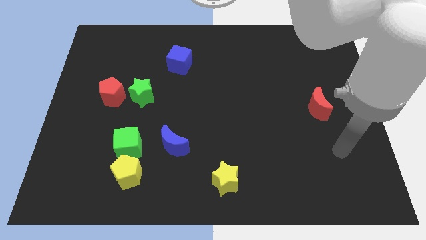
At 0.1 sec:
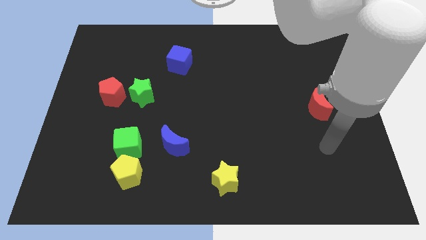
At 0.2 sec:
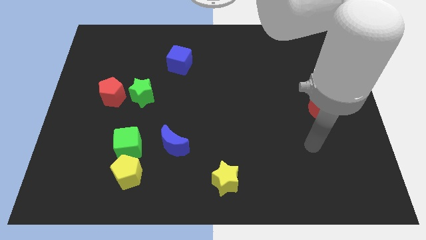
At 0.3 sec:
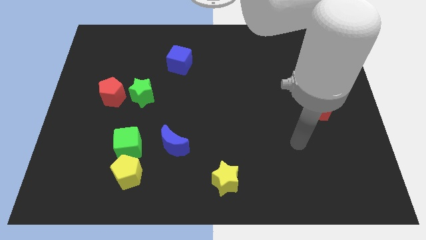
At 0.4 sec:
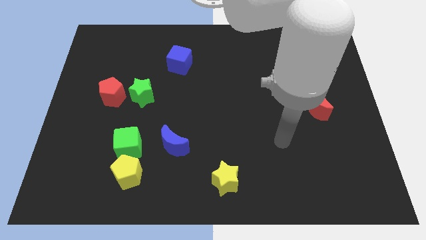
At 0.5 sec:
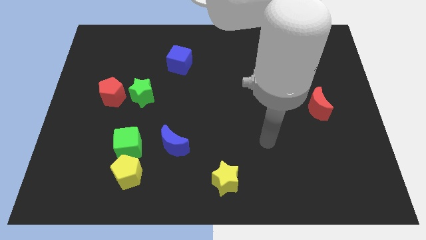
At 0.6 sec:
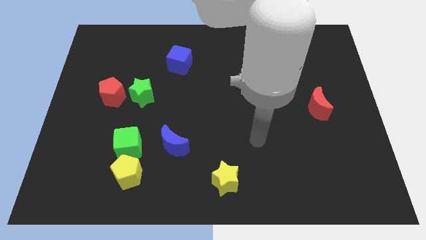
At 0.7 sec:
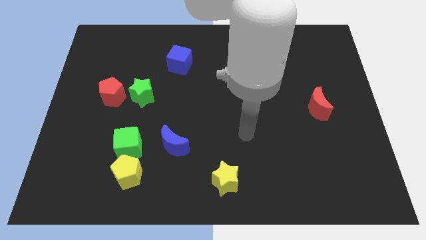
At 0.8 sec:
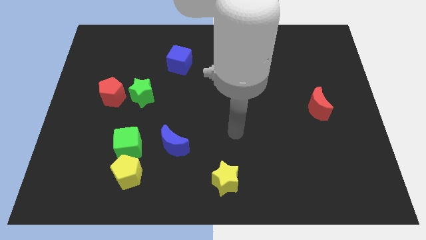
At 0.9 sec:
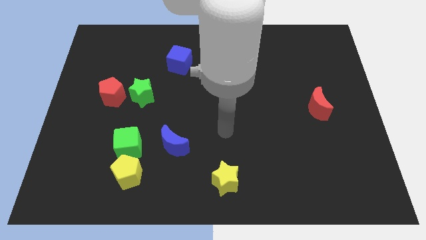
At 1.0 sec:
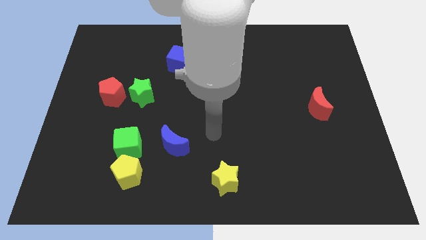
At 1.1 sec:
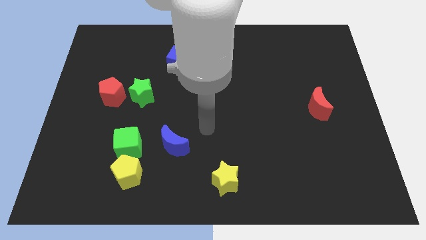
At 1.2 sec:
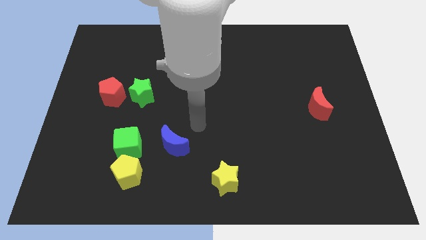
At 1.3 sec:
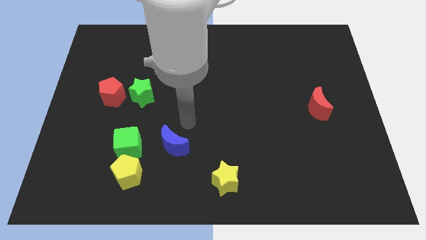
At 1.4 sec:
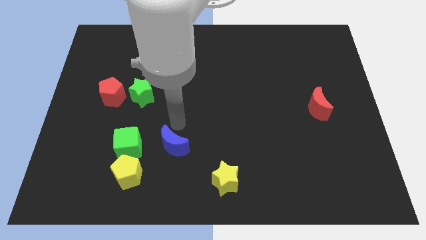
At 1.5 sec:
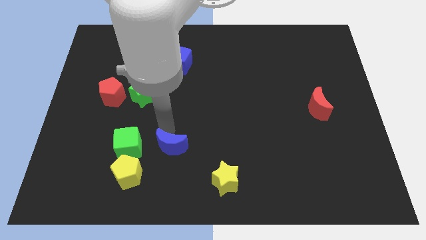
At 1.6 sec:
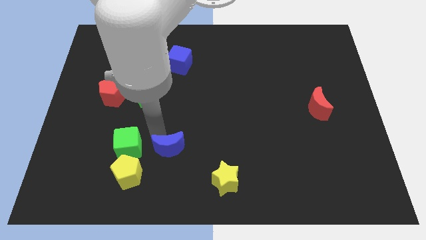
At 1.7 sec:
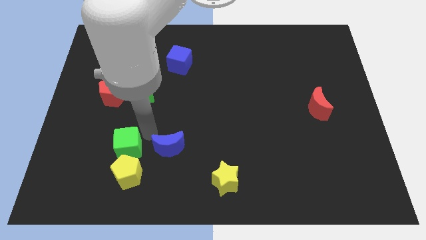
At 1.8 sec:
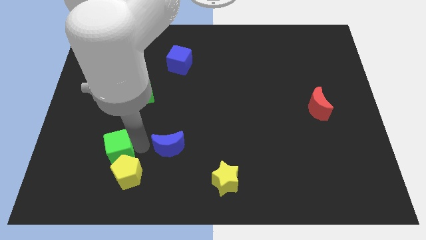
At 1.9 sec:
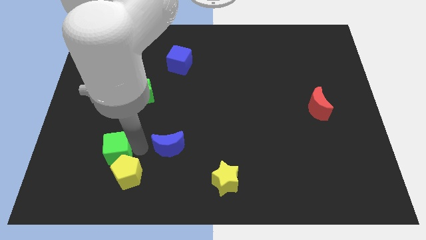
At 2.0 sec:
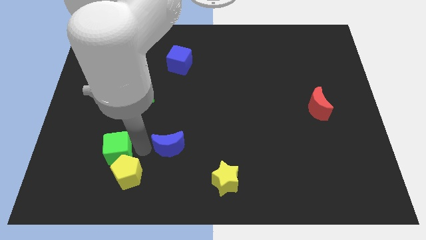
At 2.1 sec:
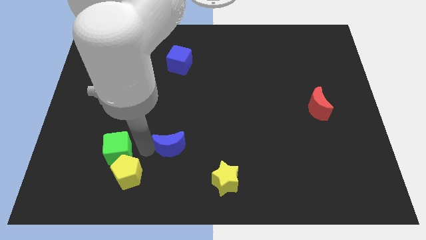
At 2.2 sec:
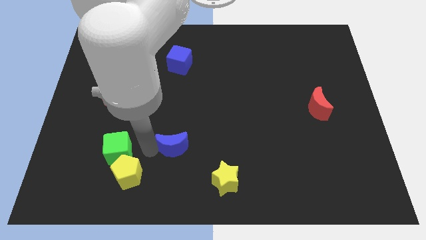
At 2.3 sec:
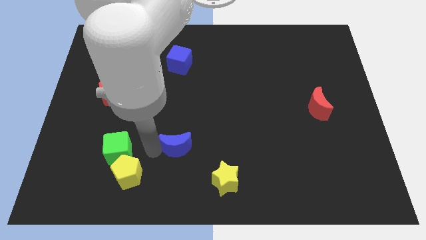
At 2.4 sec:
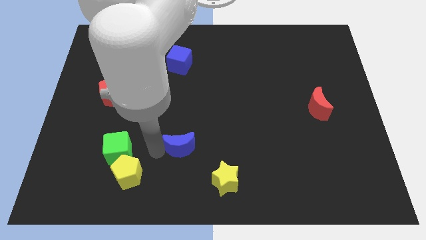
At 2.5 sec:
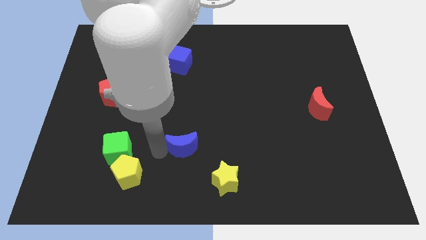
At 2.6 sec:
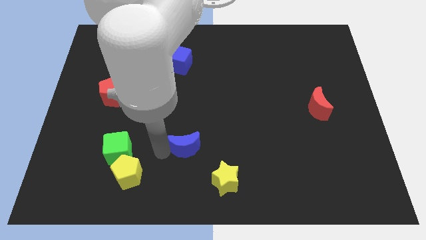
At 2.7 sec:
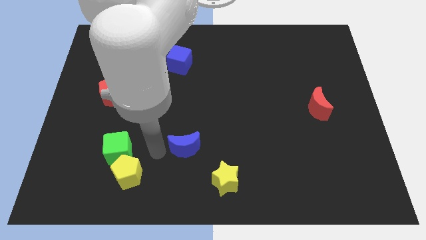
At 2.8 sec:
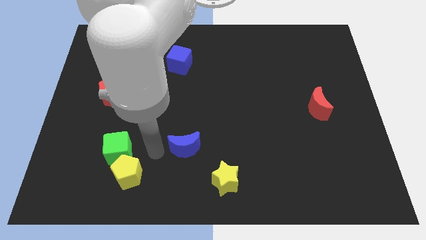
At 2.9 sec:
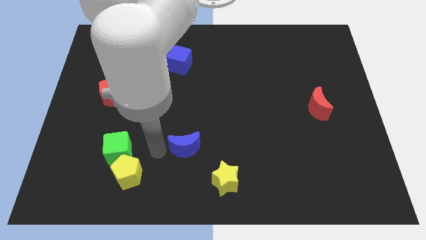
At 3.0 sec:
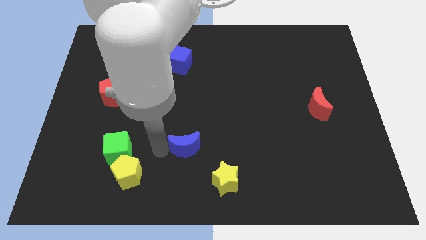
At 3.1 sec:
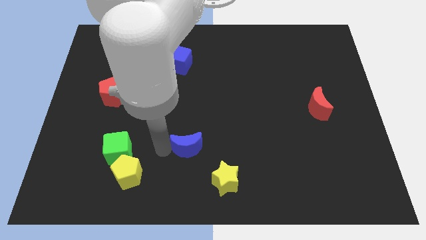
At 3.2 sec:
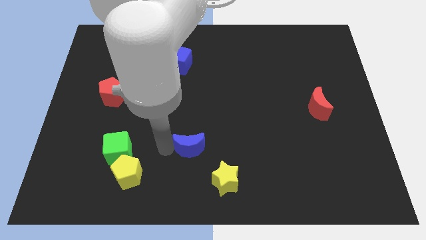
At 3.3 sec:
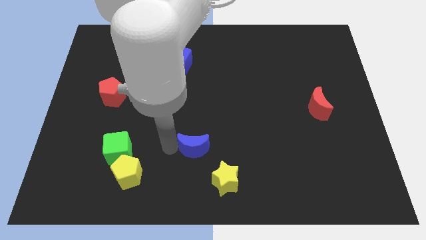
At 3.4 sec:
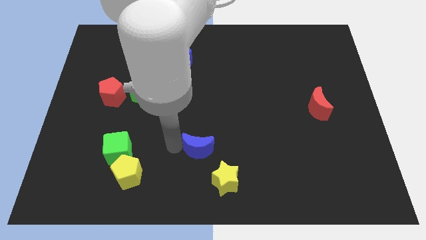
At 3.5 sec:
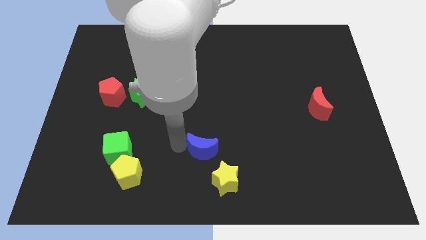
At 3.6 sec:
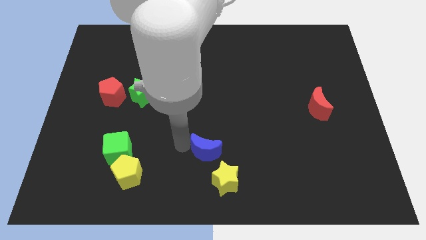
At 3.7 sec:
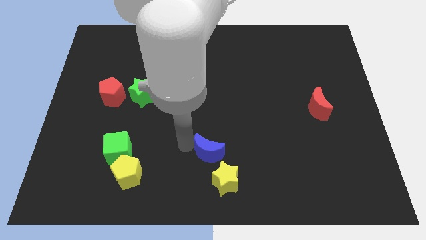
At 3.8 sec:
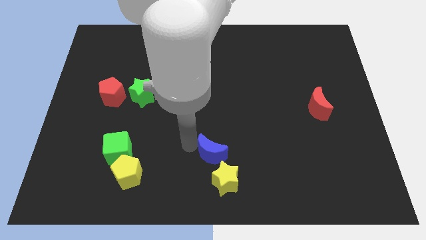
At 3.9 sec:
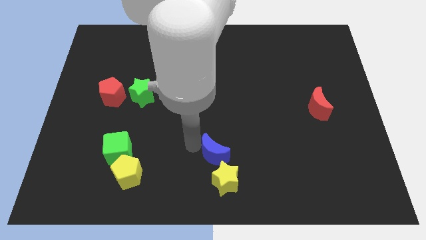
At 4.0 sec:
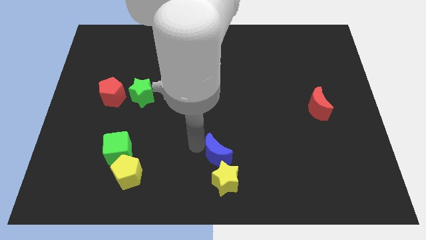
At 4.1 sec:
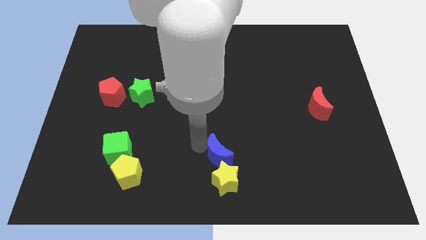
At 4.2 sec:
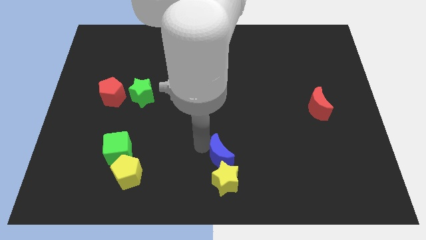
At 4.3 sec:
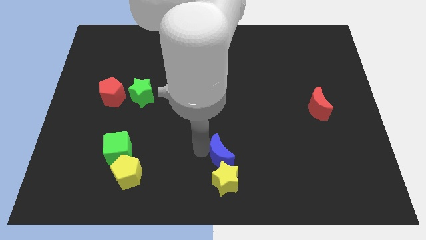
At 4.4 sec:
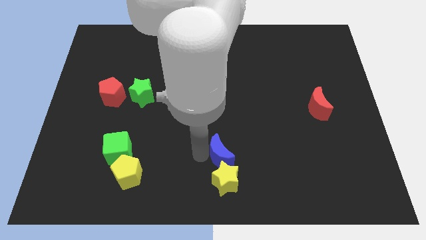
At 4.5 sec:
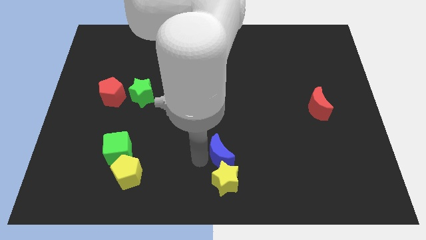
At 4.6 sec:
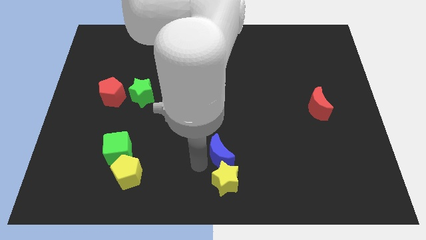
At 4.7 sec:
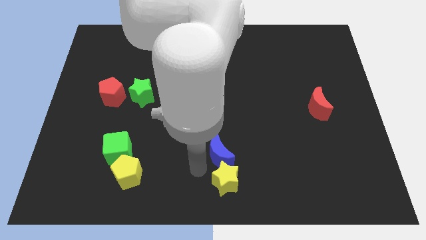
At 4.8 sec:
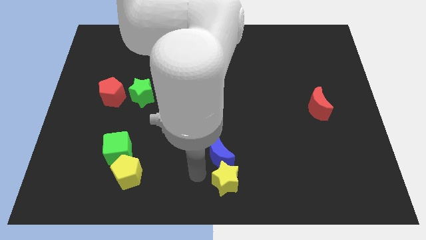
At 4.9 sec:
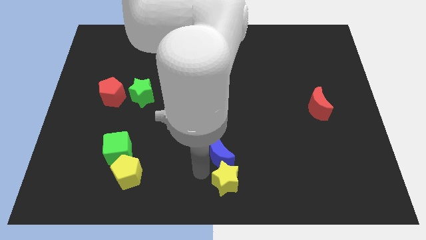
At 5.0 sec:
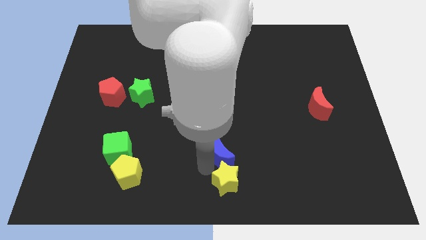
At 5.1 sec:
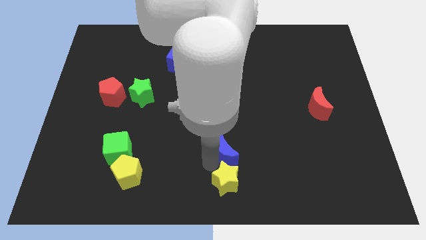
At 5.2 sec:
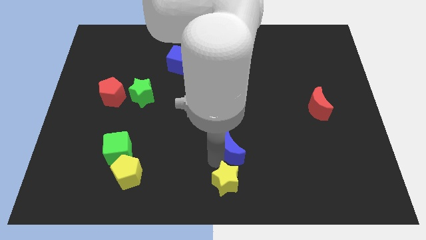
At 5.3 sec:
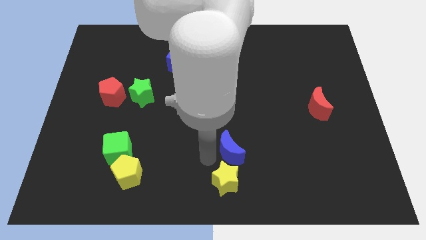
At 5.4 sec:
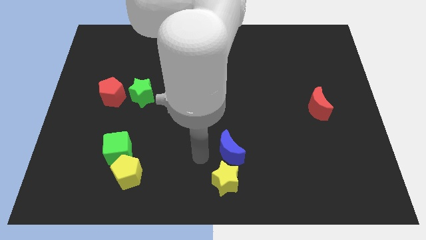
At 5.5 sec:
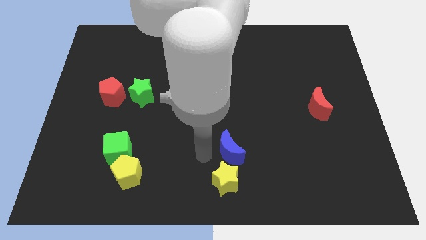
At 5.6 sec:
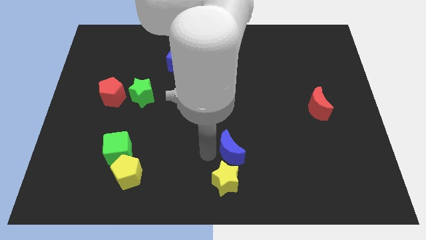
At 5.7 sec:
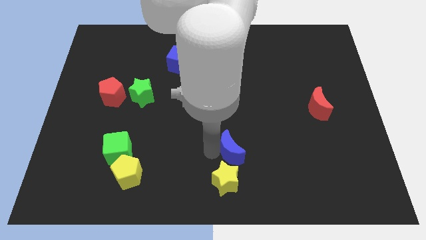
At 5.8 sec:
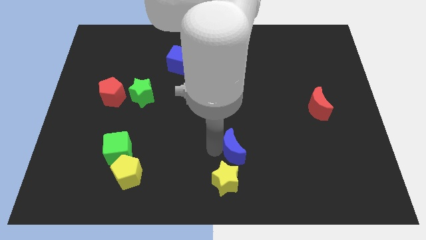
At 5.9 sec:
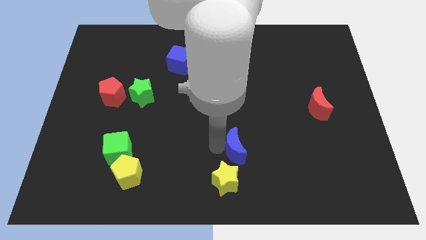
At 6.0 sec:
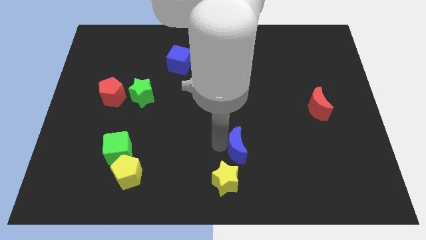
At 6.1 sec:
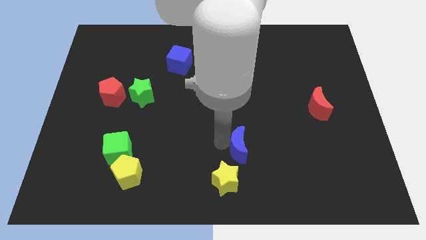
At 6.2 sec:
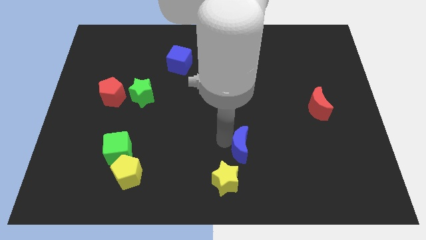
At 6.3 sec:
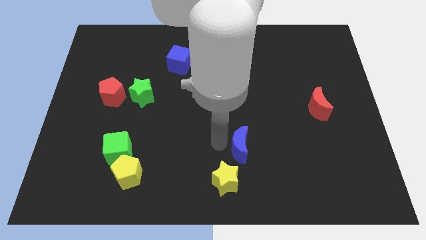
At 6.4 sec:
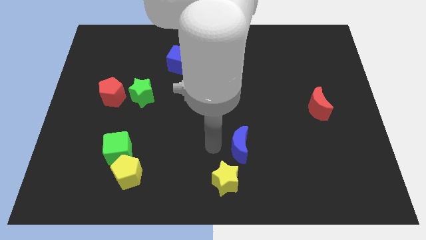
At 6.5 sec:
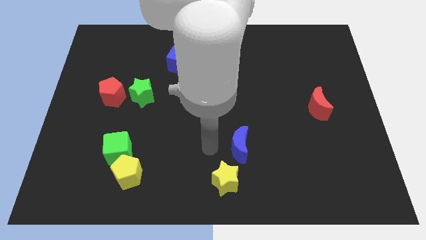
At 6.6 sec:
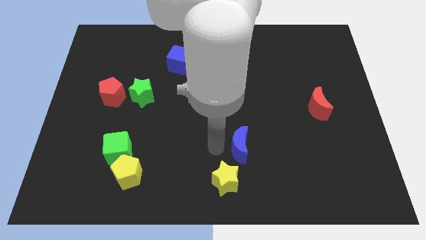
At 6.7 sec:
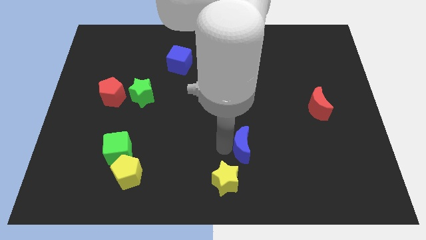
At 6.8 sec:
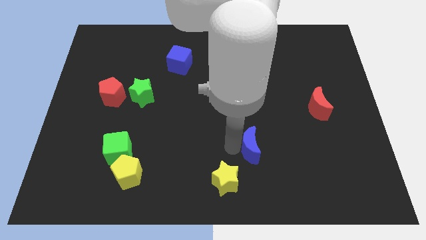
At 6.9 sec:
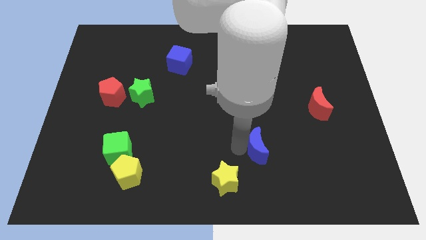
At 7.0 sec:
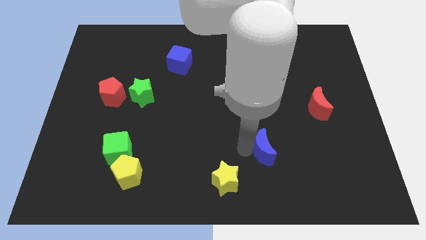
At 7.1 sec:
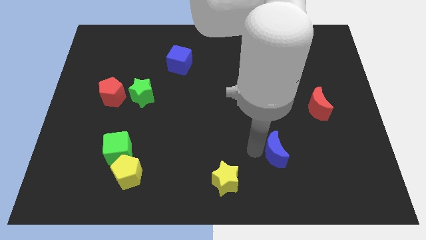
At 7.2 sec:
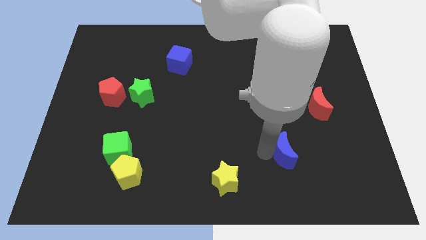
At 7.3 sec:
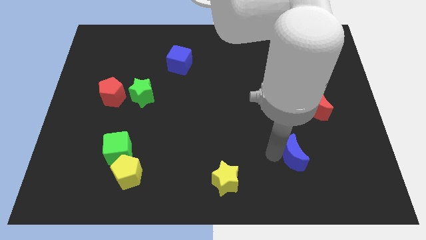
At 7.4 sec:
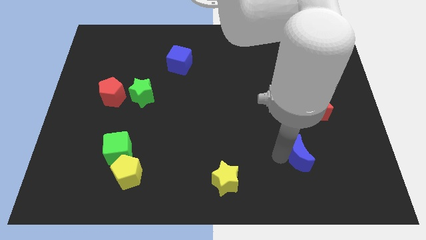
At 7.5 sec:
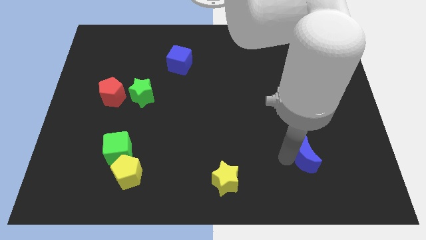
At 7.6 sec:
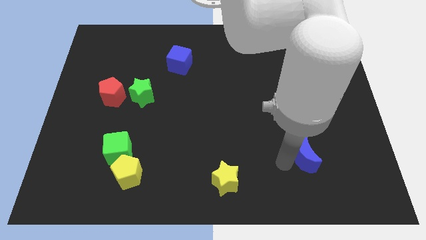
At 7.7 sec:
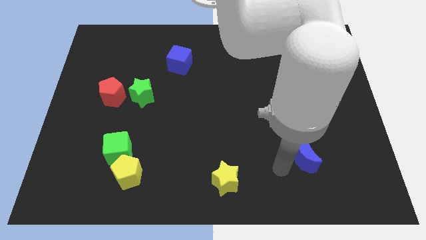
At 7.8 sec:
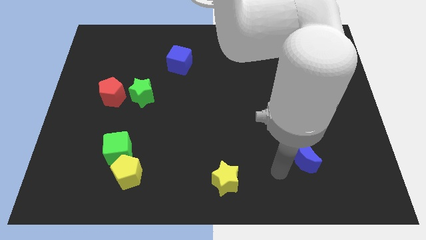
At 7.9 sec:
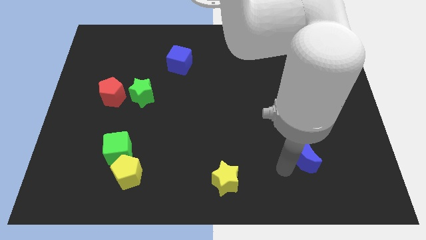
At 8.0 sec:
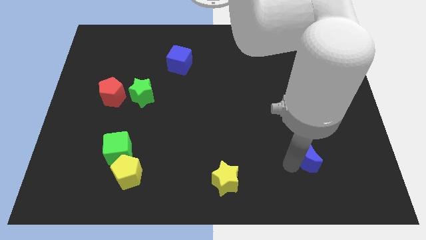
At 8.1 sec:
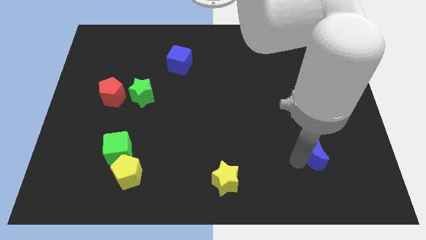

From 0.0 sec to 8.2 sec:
put the blue moon to the bottom side of the red moon
